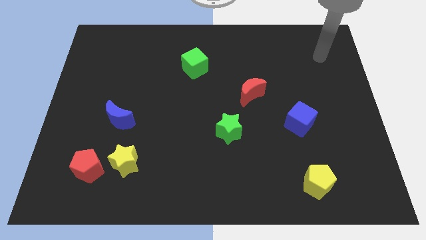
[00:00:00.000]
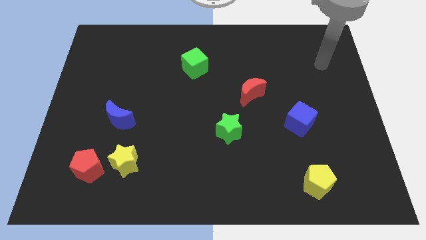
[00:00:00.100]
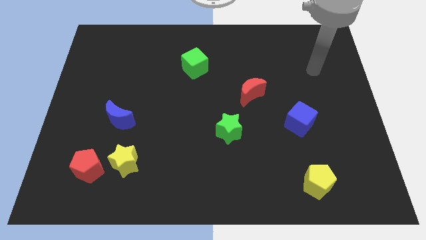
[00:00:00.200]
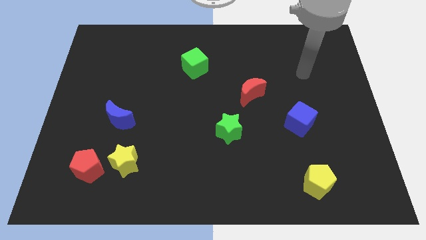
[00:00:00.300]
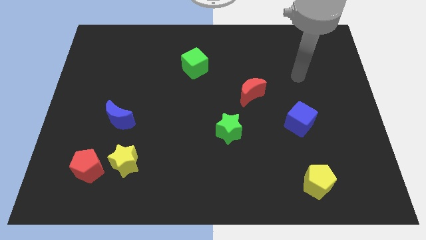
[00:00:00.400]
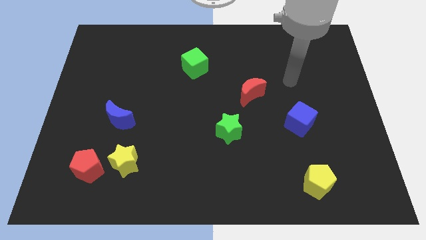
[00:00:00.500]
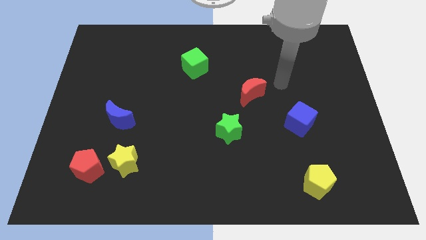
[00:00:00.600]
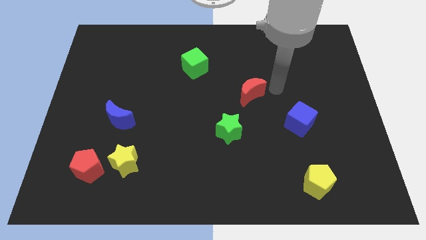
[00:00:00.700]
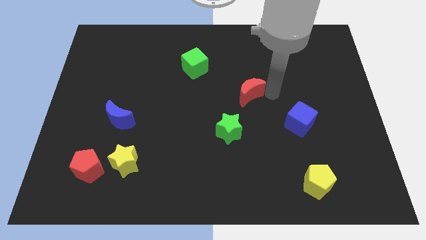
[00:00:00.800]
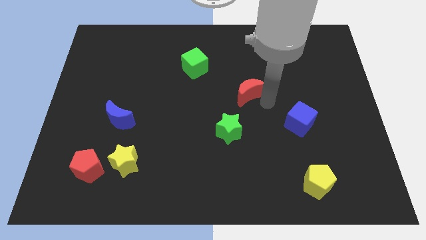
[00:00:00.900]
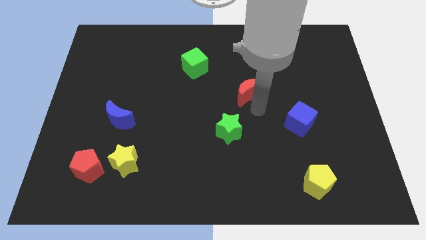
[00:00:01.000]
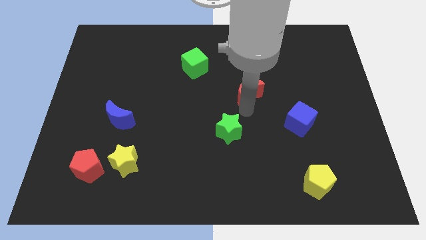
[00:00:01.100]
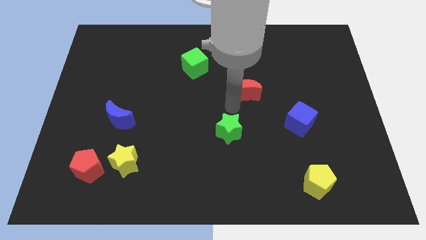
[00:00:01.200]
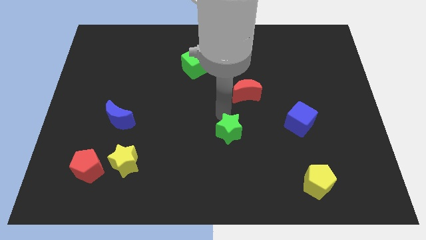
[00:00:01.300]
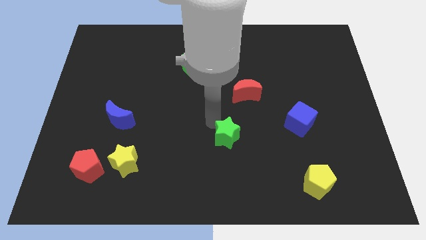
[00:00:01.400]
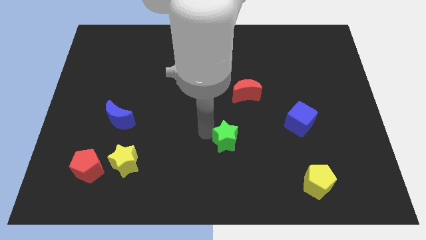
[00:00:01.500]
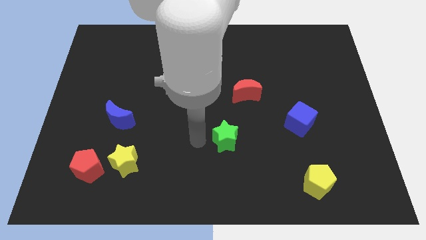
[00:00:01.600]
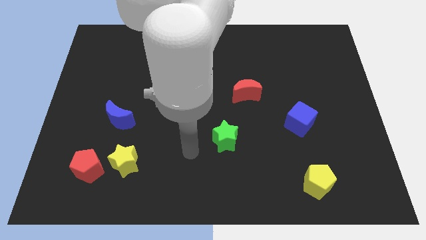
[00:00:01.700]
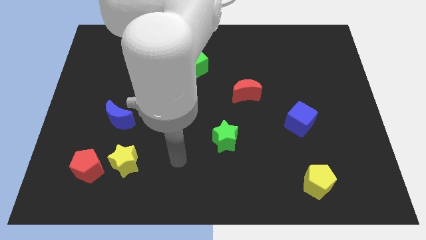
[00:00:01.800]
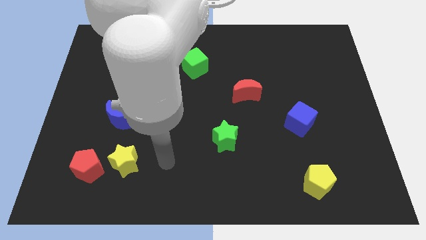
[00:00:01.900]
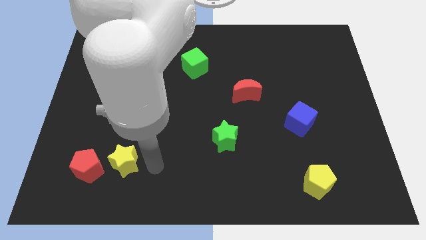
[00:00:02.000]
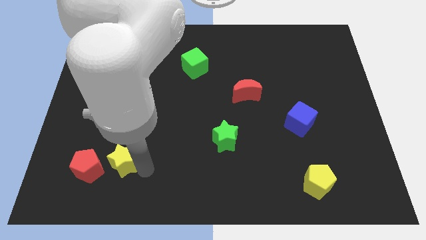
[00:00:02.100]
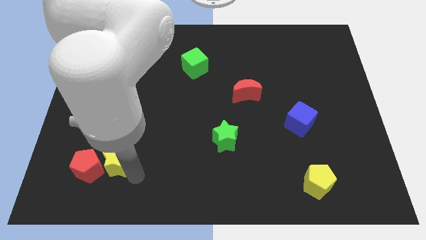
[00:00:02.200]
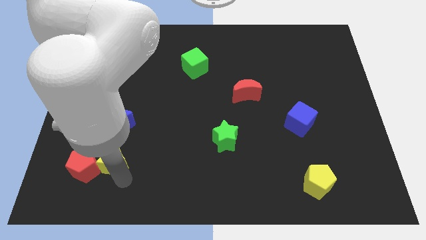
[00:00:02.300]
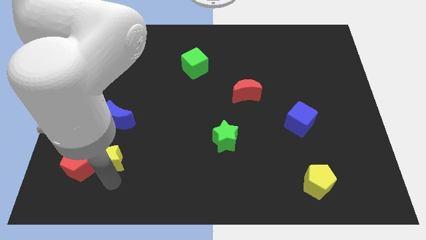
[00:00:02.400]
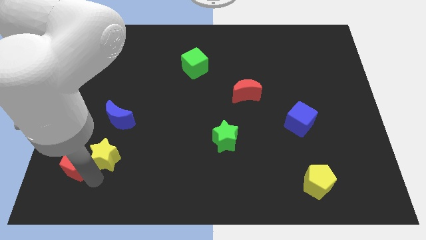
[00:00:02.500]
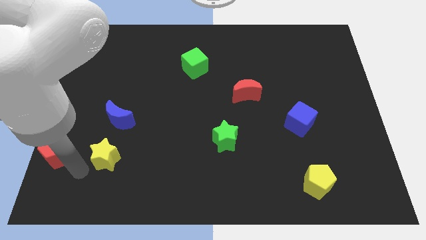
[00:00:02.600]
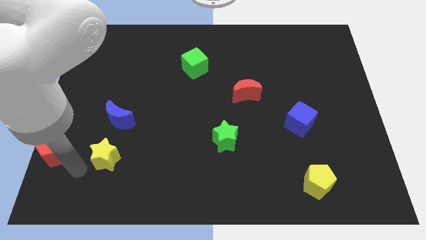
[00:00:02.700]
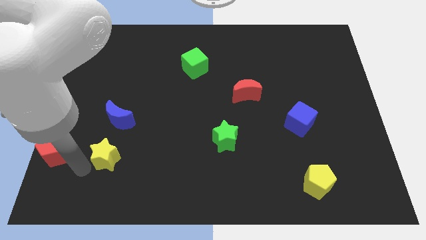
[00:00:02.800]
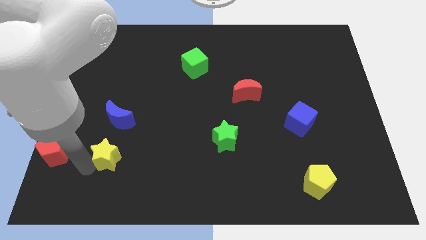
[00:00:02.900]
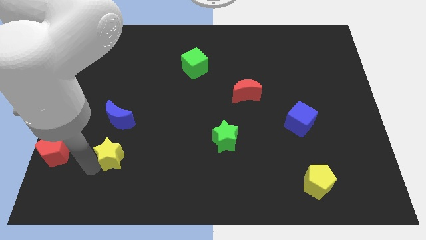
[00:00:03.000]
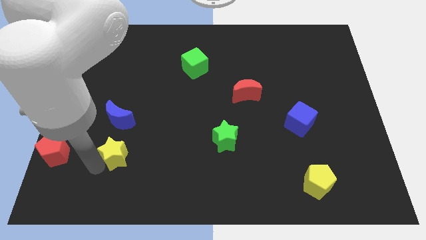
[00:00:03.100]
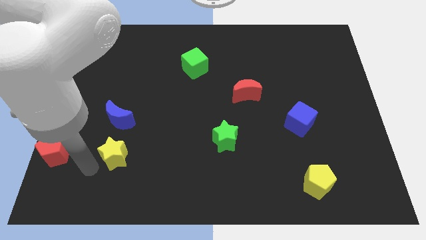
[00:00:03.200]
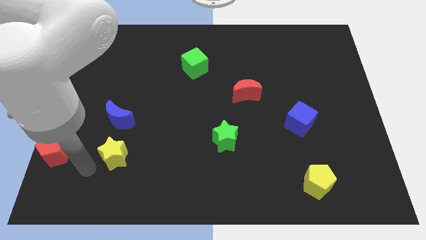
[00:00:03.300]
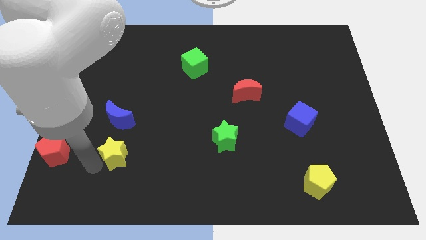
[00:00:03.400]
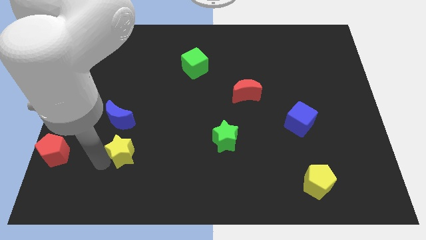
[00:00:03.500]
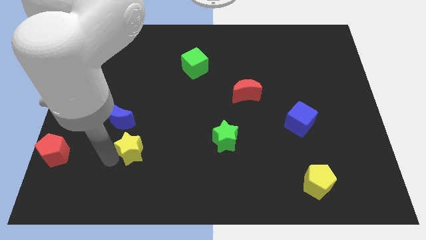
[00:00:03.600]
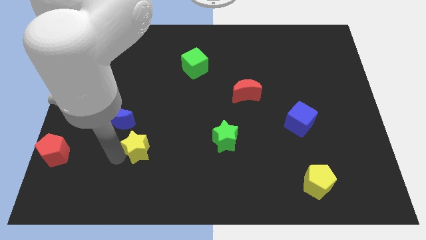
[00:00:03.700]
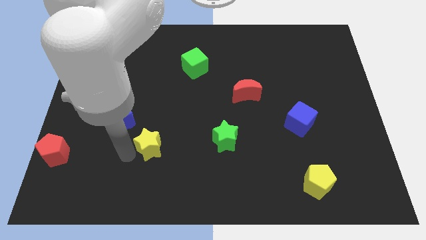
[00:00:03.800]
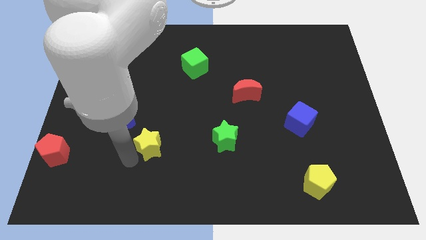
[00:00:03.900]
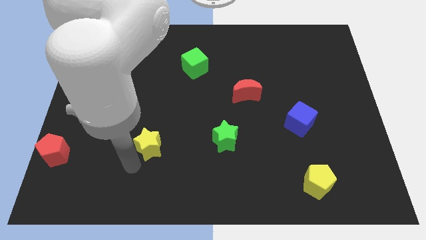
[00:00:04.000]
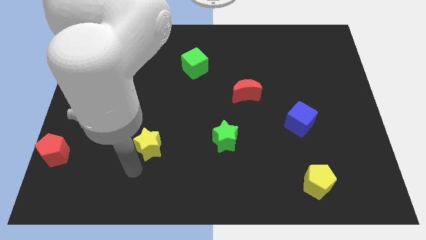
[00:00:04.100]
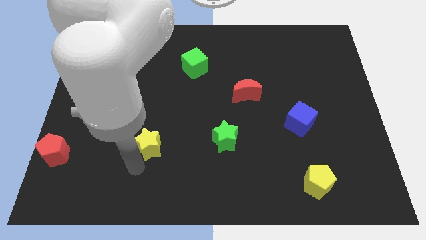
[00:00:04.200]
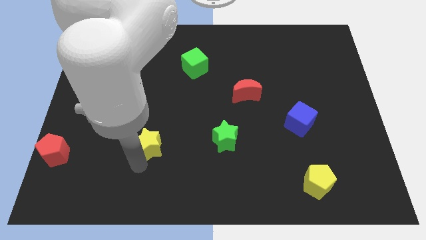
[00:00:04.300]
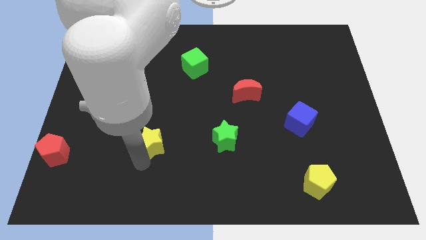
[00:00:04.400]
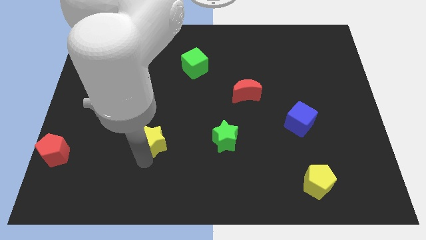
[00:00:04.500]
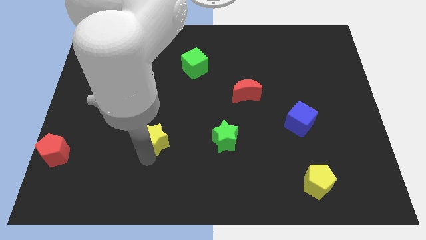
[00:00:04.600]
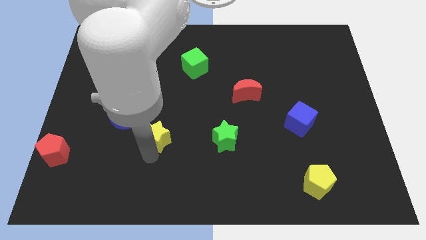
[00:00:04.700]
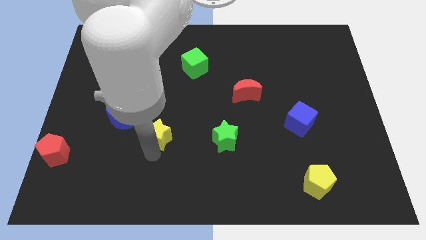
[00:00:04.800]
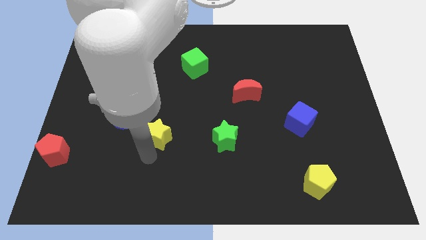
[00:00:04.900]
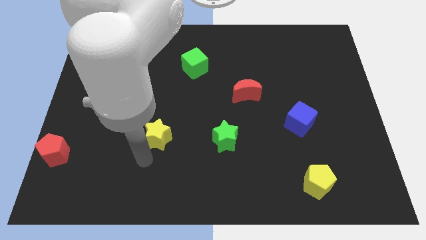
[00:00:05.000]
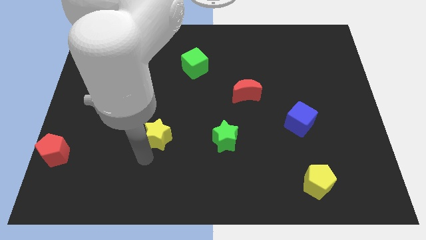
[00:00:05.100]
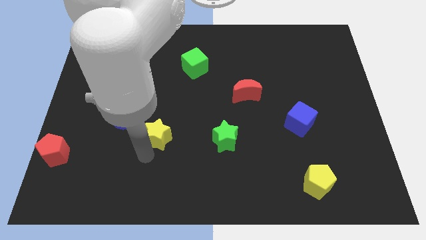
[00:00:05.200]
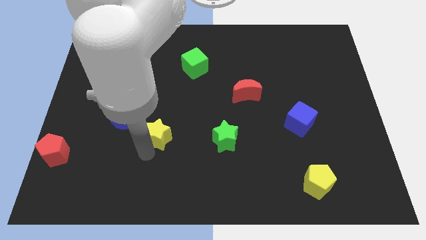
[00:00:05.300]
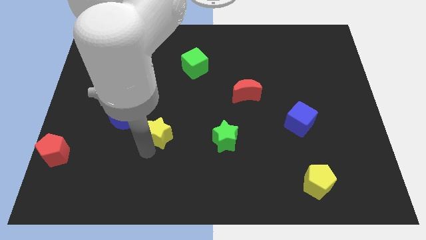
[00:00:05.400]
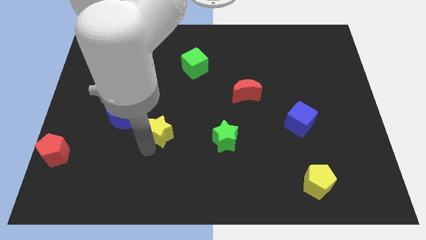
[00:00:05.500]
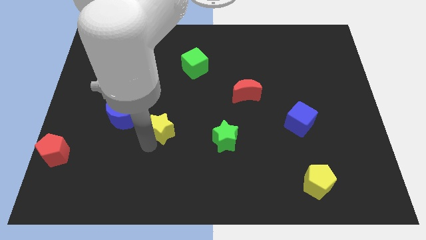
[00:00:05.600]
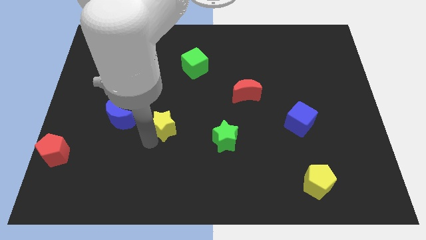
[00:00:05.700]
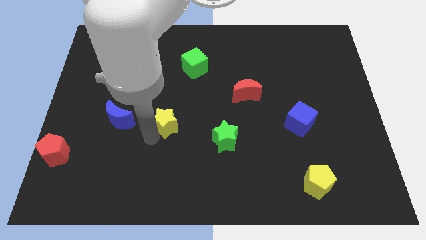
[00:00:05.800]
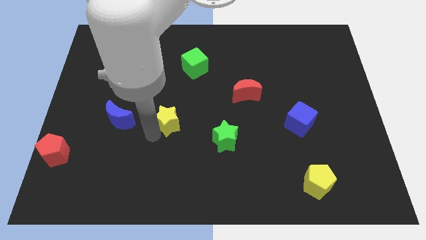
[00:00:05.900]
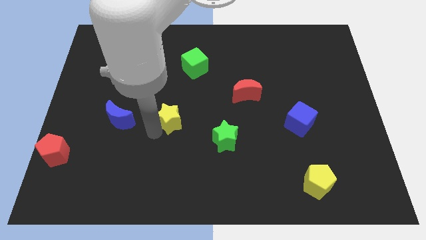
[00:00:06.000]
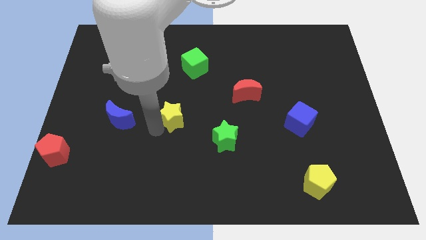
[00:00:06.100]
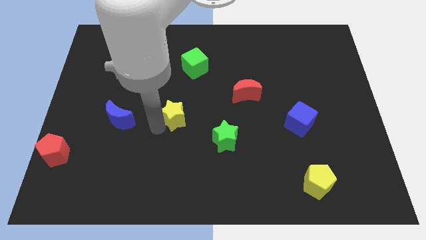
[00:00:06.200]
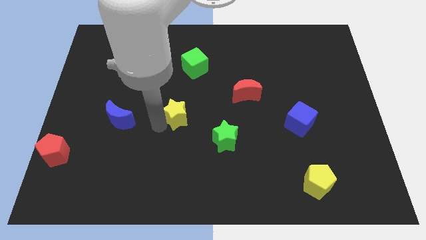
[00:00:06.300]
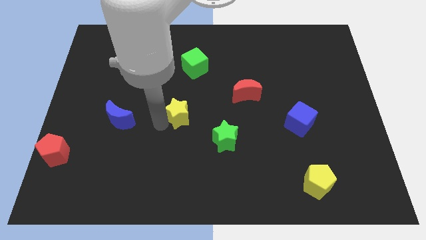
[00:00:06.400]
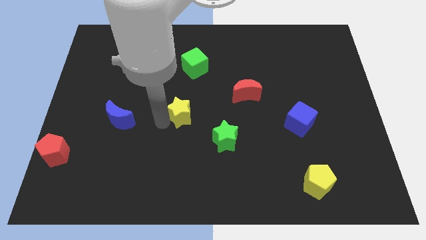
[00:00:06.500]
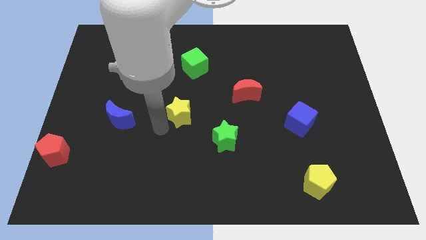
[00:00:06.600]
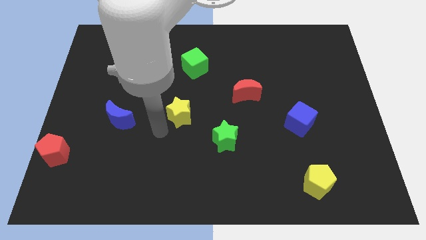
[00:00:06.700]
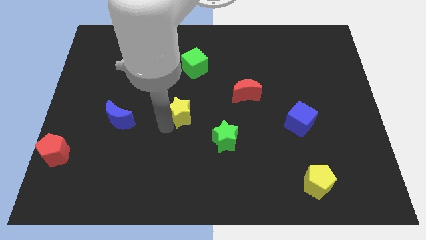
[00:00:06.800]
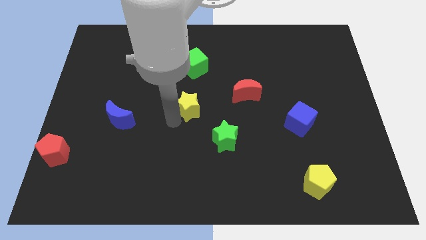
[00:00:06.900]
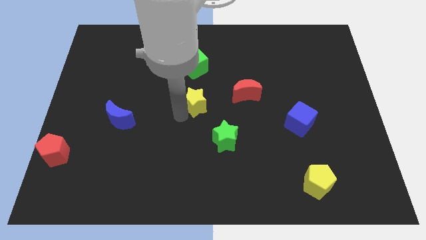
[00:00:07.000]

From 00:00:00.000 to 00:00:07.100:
slide the yellow star up and right diagonally

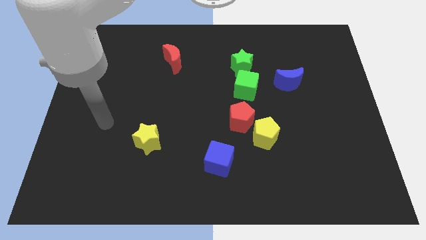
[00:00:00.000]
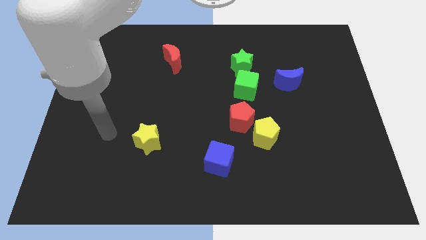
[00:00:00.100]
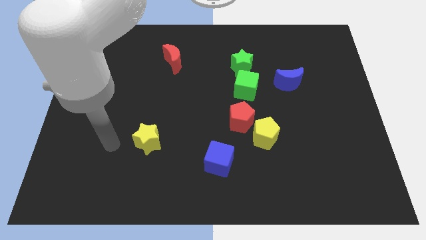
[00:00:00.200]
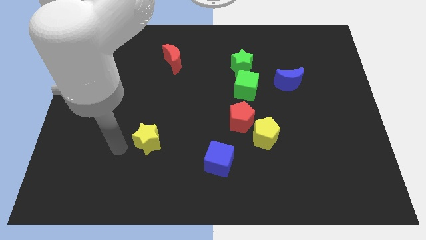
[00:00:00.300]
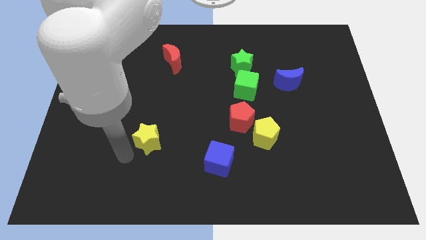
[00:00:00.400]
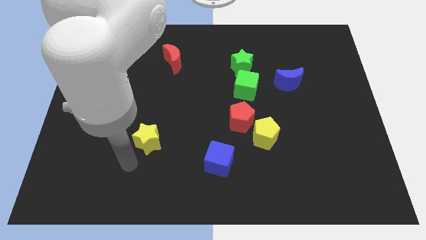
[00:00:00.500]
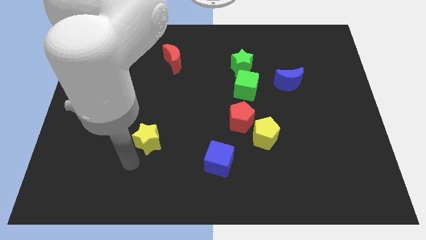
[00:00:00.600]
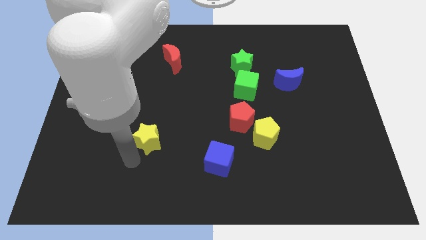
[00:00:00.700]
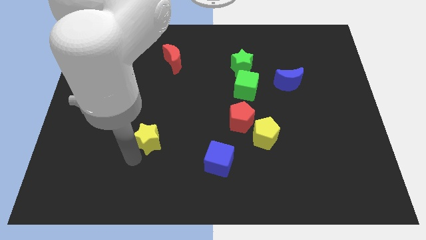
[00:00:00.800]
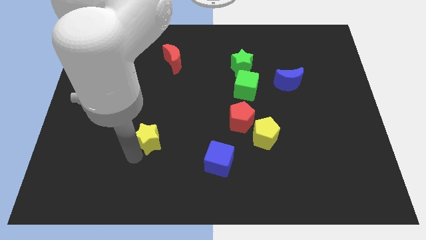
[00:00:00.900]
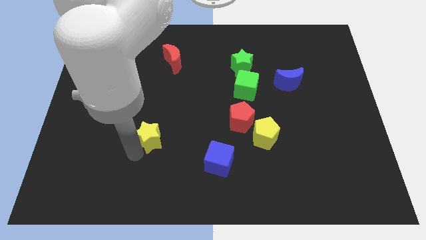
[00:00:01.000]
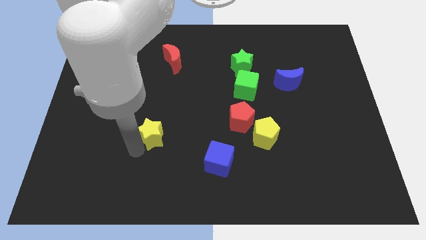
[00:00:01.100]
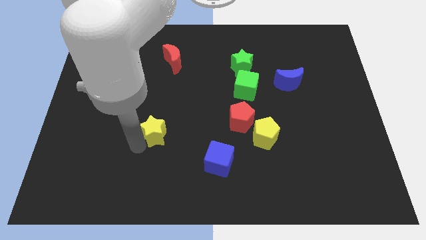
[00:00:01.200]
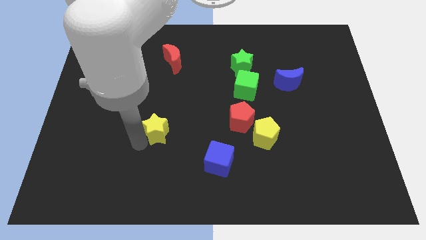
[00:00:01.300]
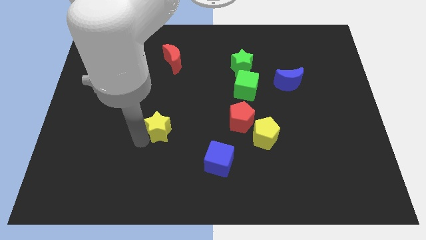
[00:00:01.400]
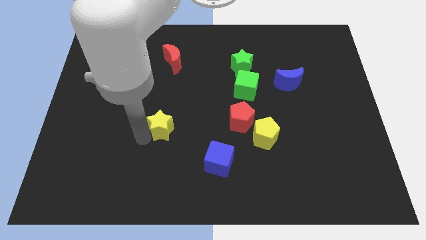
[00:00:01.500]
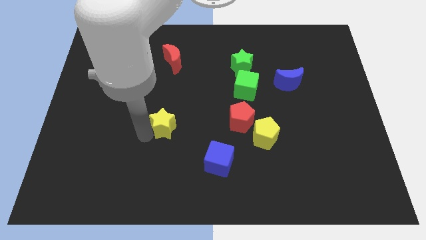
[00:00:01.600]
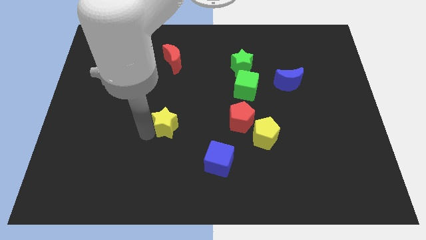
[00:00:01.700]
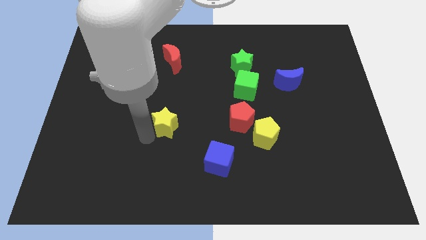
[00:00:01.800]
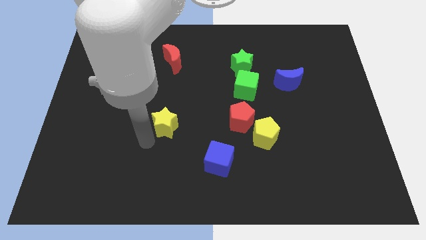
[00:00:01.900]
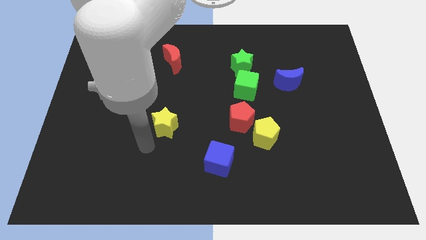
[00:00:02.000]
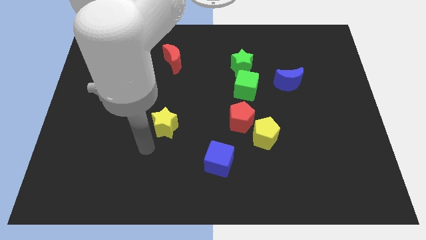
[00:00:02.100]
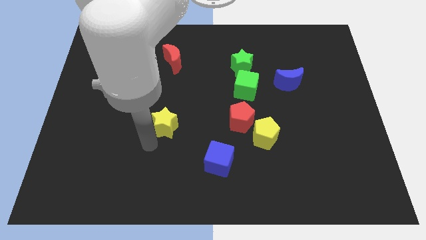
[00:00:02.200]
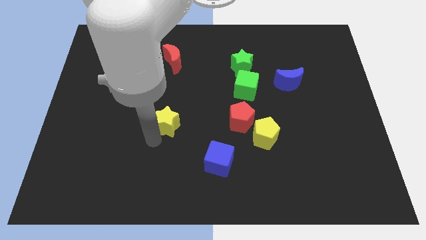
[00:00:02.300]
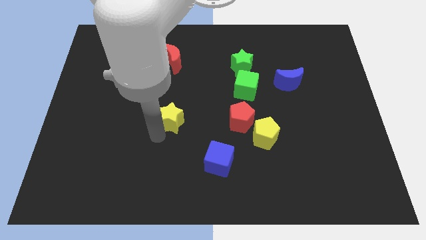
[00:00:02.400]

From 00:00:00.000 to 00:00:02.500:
move the yellow star slightly up and right diagonally
